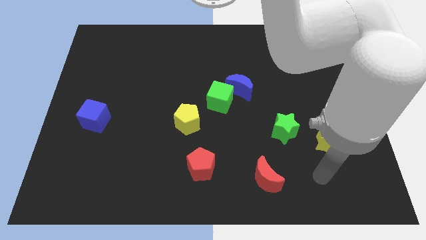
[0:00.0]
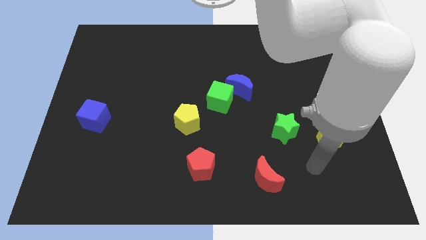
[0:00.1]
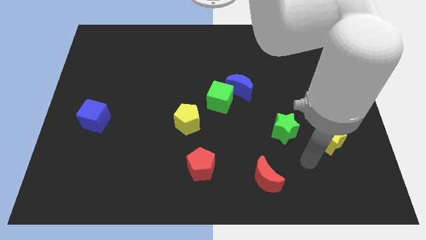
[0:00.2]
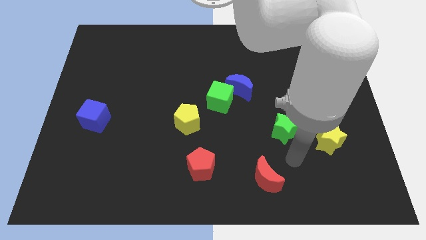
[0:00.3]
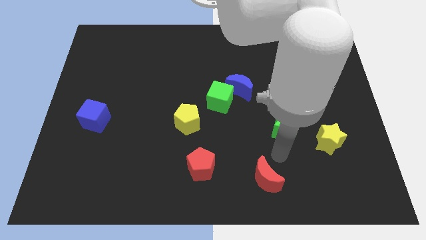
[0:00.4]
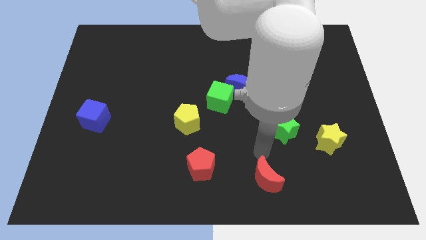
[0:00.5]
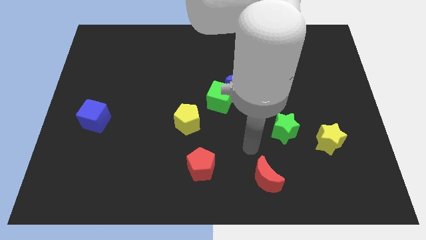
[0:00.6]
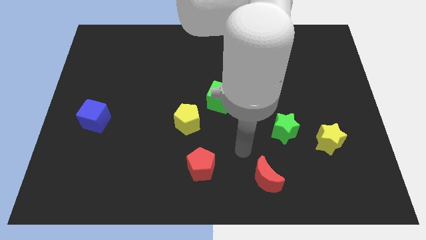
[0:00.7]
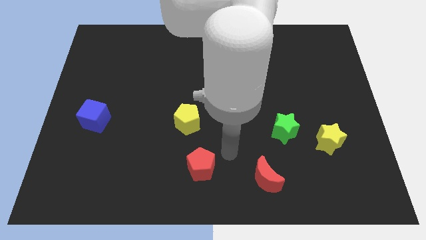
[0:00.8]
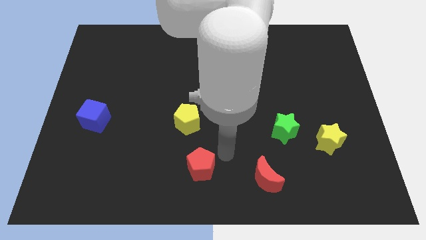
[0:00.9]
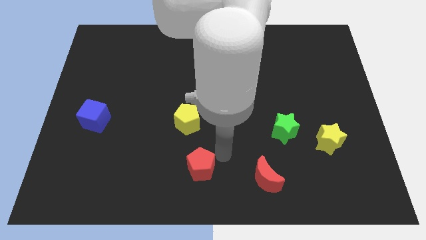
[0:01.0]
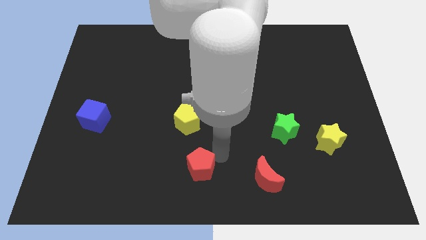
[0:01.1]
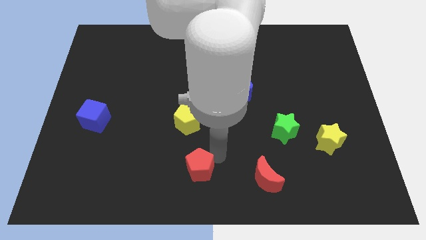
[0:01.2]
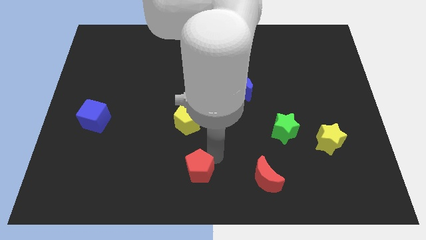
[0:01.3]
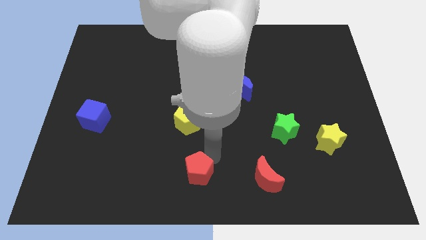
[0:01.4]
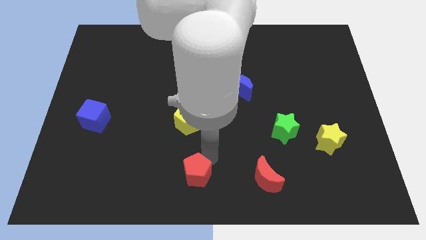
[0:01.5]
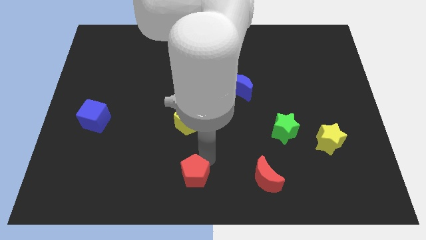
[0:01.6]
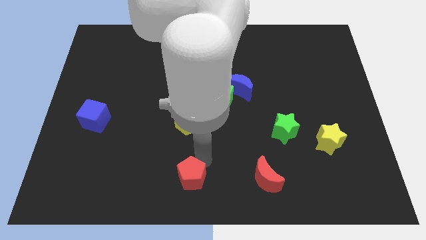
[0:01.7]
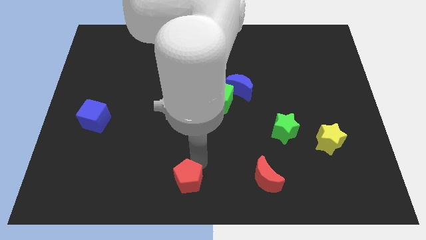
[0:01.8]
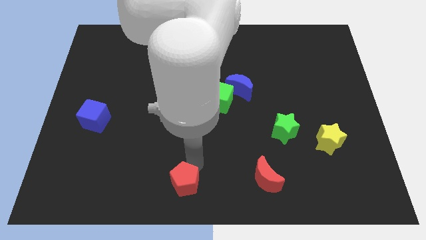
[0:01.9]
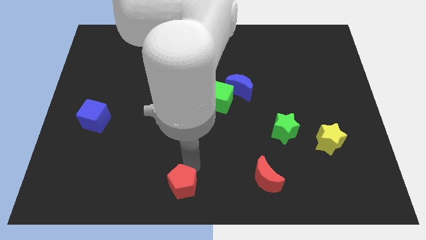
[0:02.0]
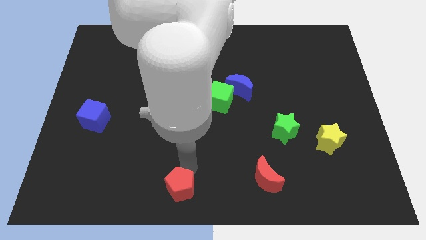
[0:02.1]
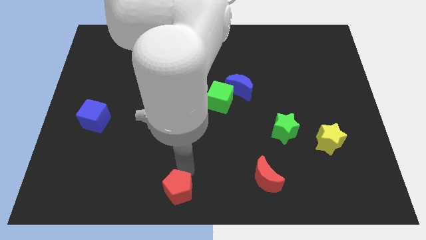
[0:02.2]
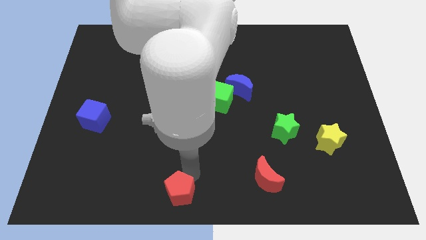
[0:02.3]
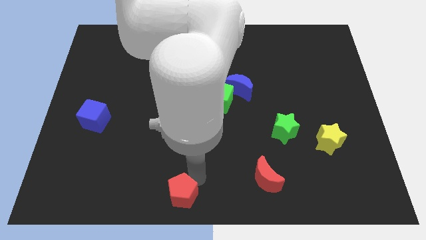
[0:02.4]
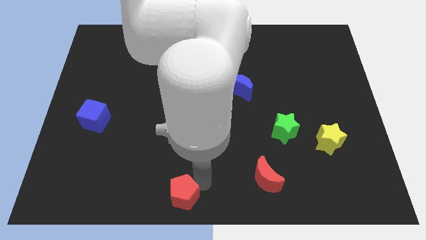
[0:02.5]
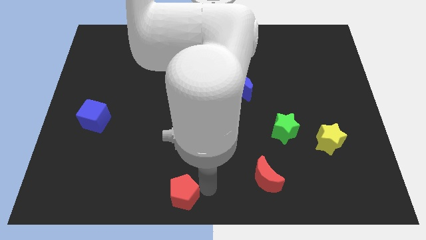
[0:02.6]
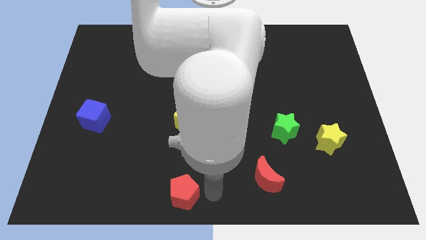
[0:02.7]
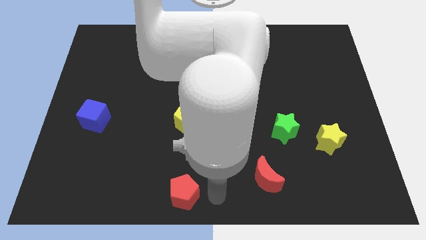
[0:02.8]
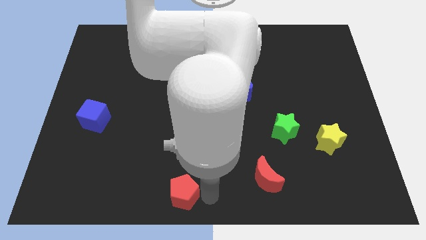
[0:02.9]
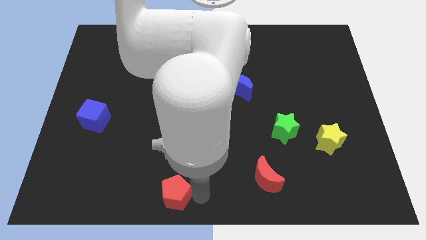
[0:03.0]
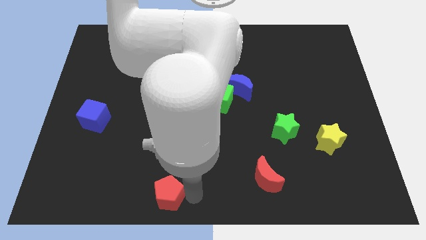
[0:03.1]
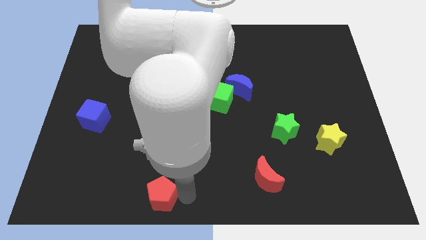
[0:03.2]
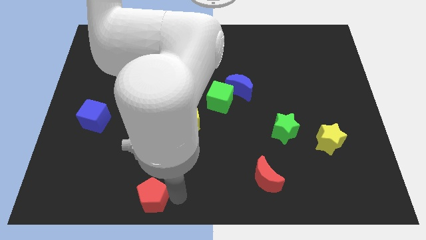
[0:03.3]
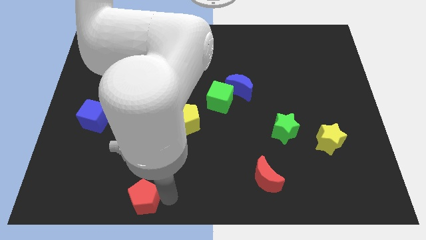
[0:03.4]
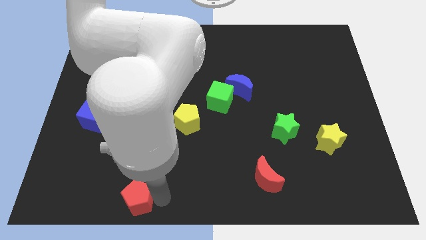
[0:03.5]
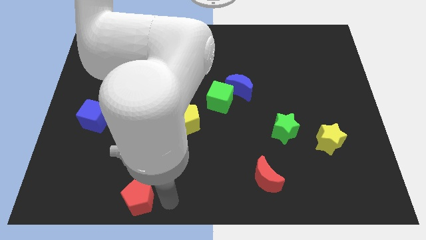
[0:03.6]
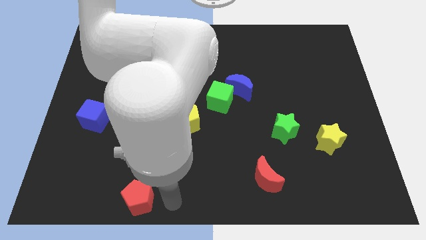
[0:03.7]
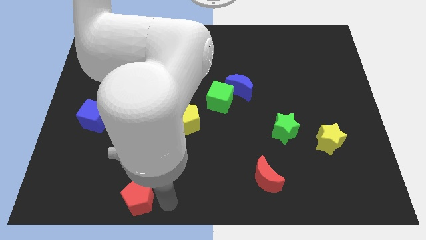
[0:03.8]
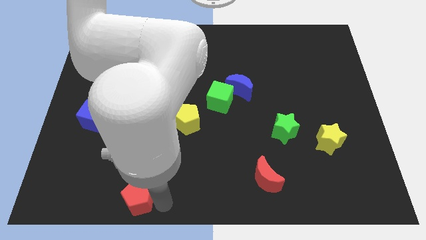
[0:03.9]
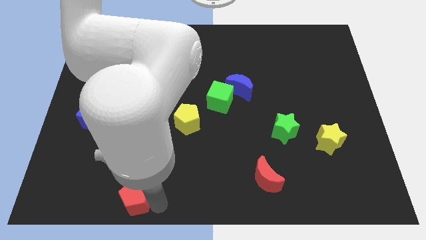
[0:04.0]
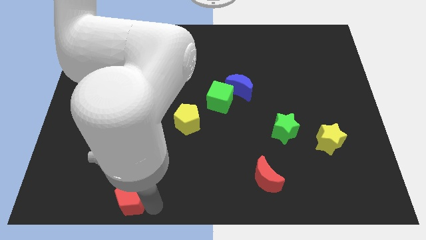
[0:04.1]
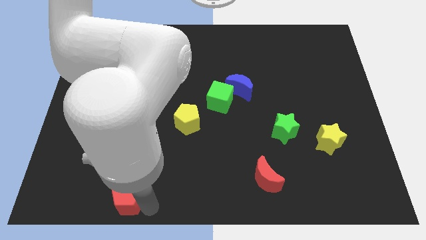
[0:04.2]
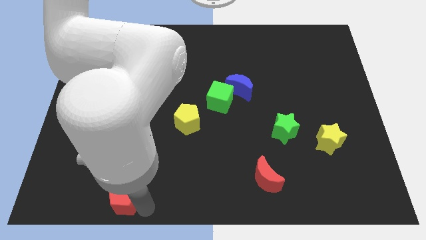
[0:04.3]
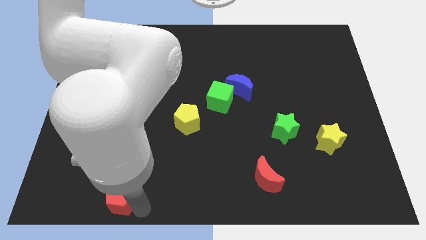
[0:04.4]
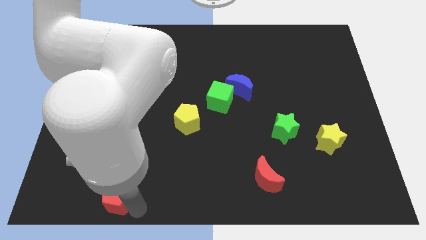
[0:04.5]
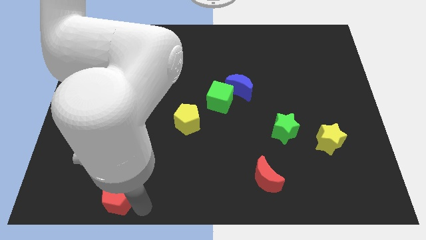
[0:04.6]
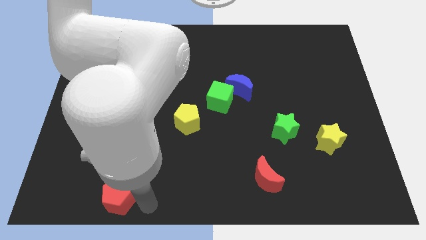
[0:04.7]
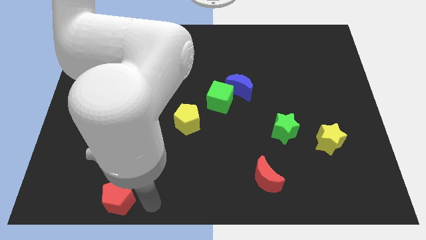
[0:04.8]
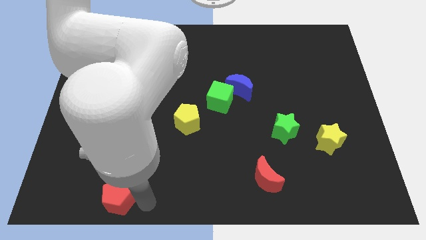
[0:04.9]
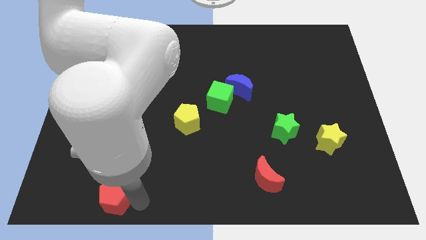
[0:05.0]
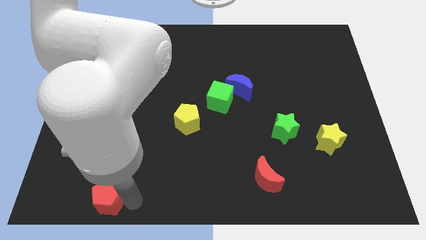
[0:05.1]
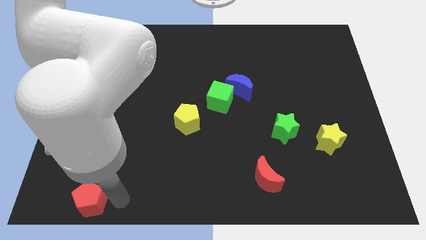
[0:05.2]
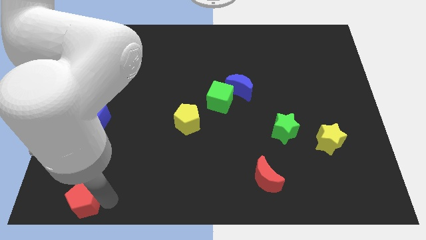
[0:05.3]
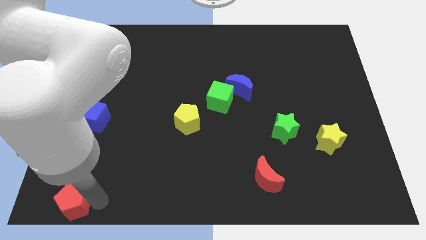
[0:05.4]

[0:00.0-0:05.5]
slide the red pentagon to the lower left corner

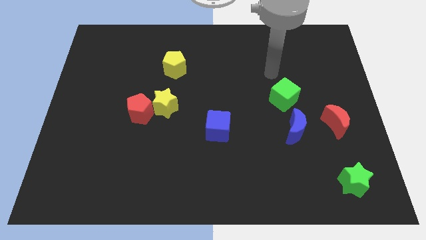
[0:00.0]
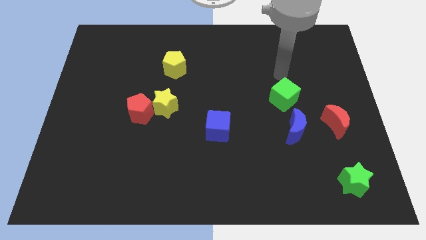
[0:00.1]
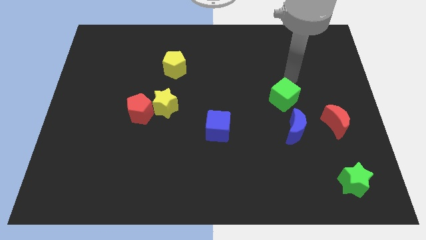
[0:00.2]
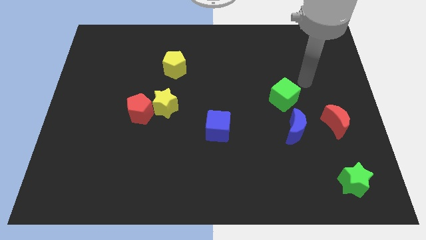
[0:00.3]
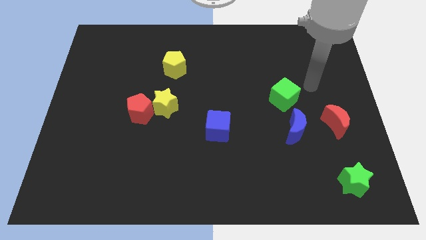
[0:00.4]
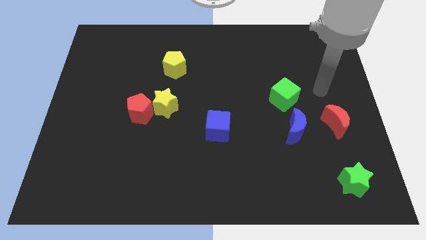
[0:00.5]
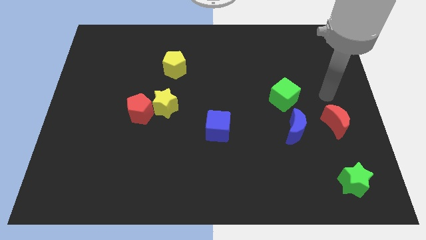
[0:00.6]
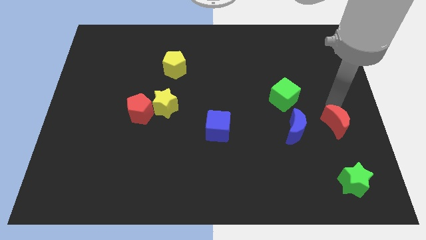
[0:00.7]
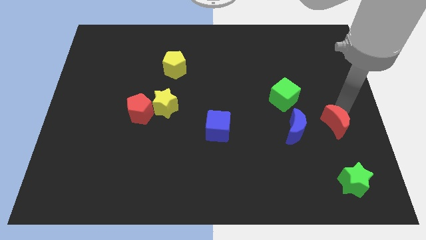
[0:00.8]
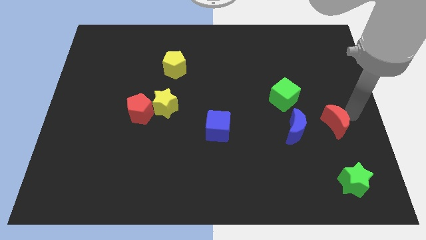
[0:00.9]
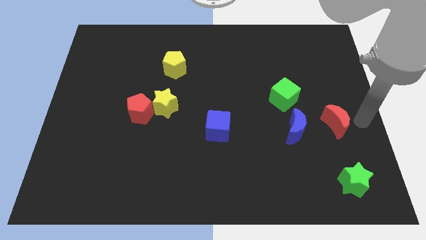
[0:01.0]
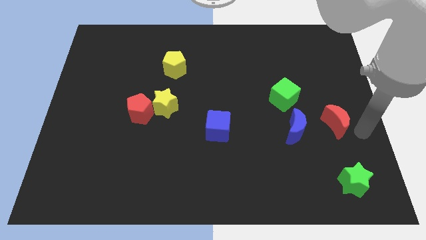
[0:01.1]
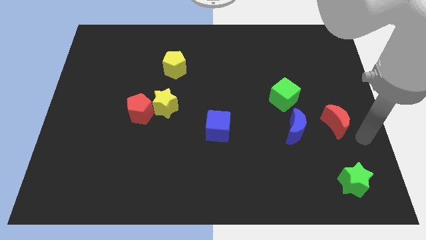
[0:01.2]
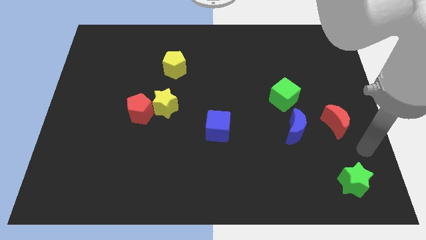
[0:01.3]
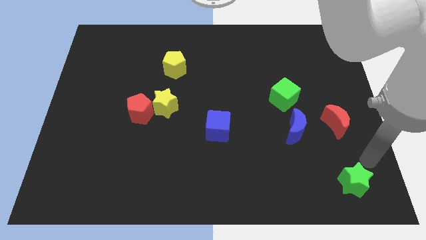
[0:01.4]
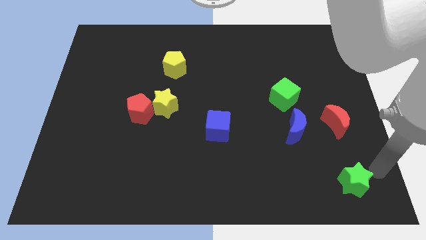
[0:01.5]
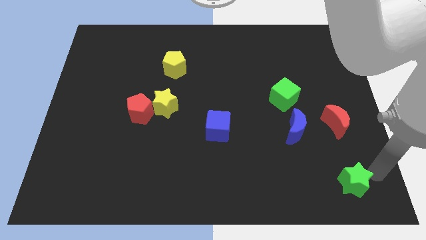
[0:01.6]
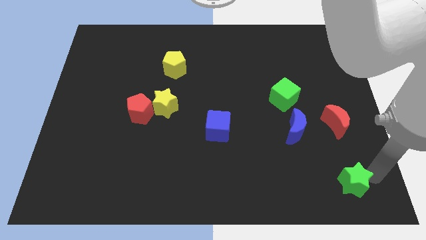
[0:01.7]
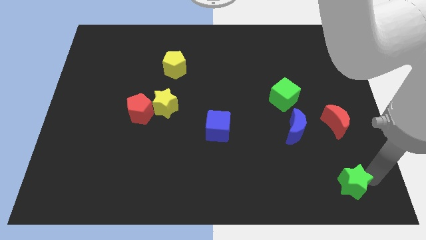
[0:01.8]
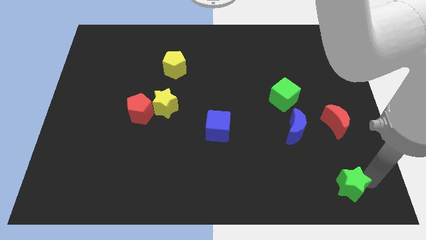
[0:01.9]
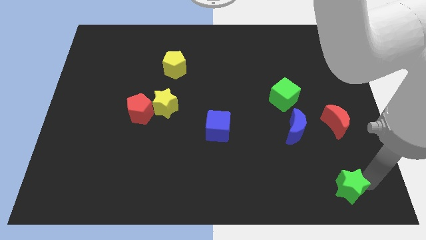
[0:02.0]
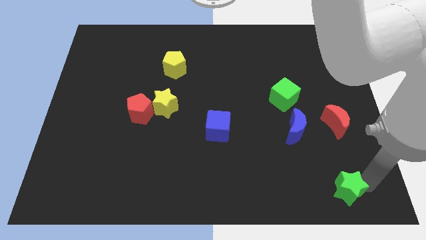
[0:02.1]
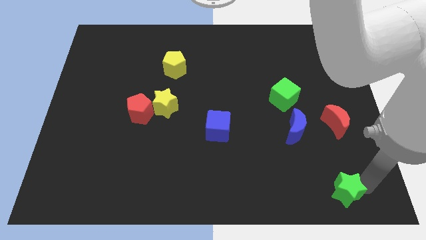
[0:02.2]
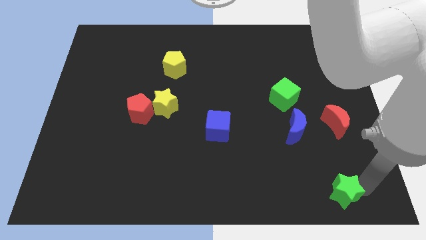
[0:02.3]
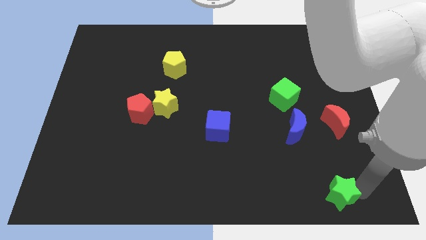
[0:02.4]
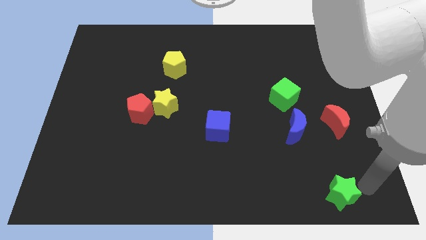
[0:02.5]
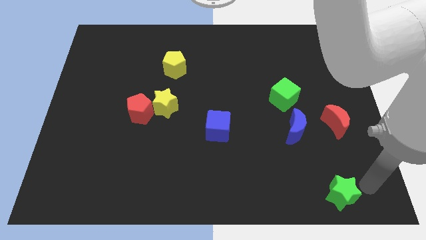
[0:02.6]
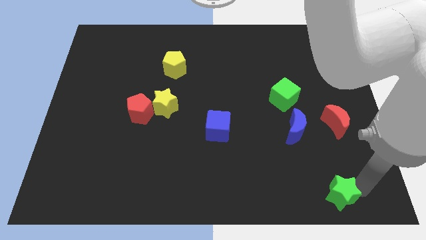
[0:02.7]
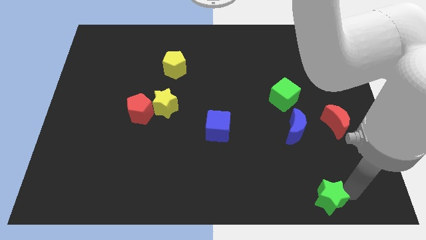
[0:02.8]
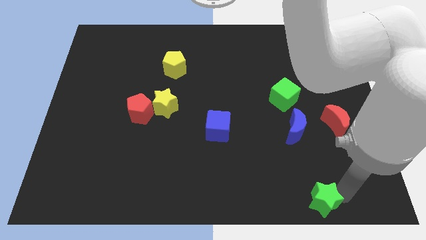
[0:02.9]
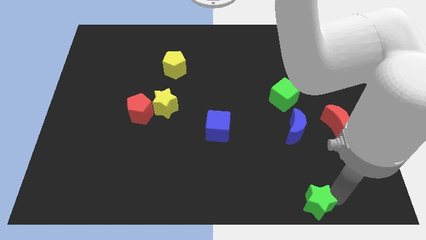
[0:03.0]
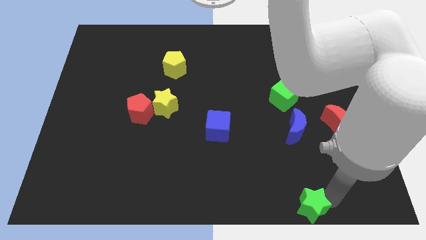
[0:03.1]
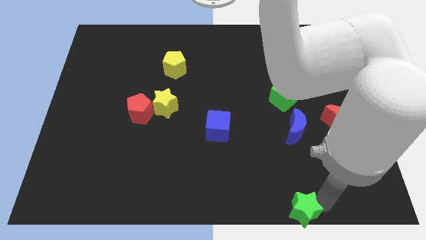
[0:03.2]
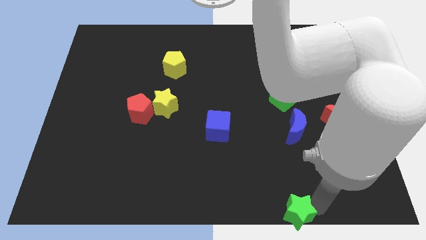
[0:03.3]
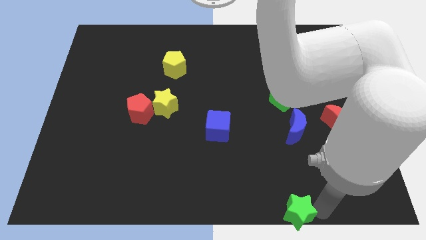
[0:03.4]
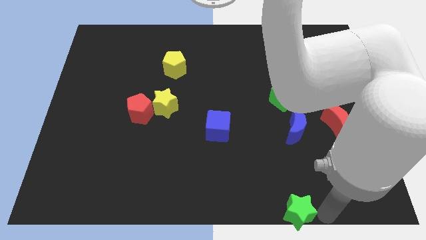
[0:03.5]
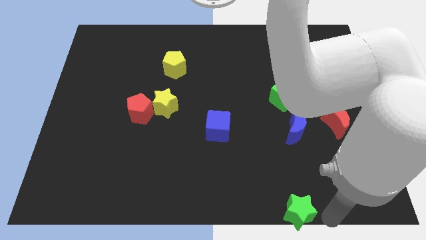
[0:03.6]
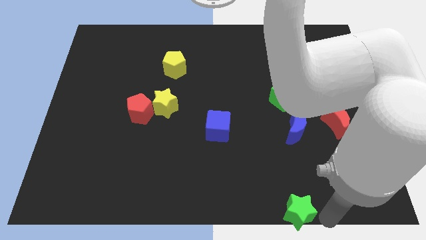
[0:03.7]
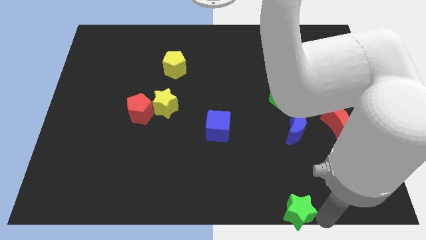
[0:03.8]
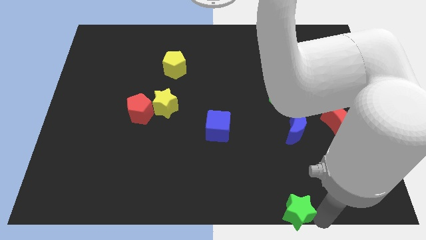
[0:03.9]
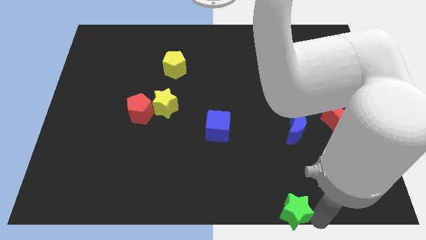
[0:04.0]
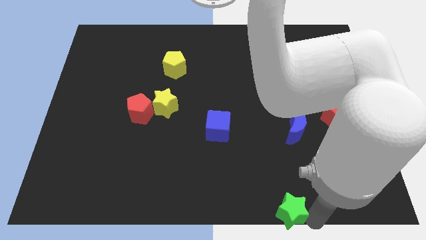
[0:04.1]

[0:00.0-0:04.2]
move the green star to the bottom side
